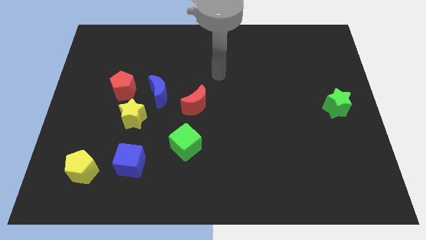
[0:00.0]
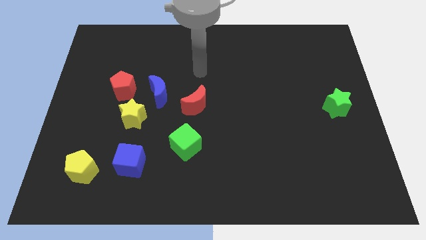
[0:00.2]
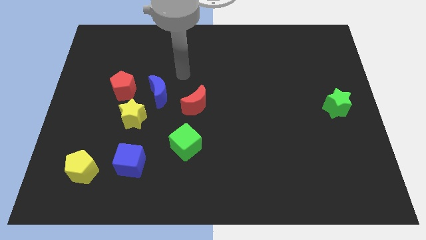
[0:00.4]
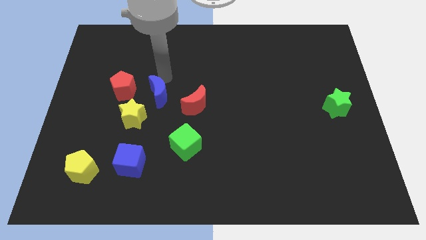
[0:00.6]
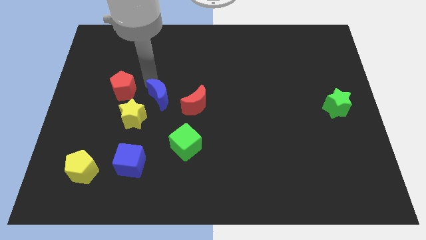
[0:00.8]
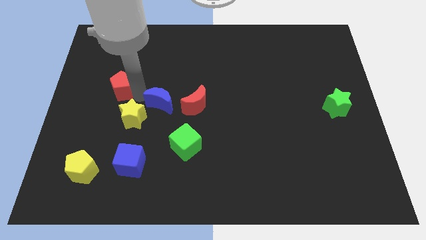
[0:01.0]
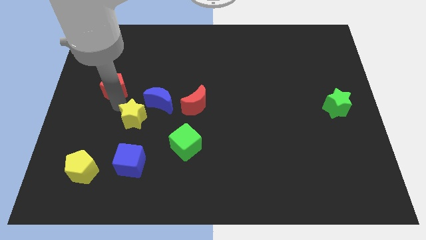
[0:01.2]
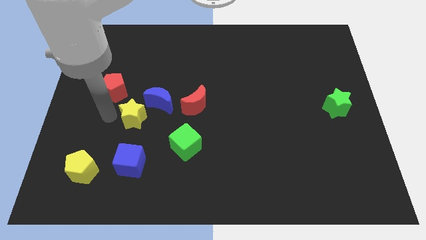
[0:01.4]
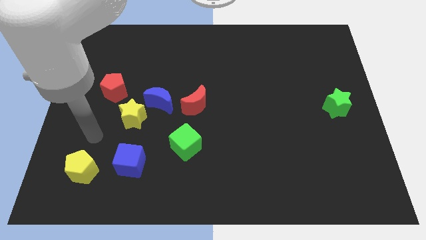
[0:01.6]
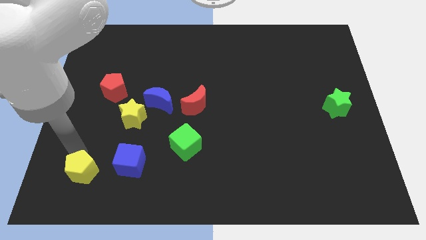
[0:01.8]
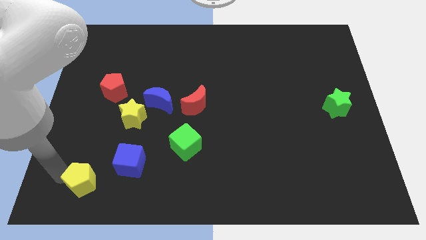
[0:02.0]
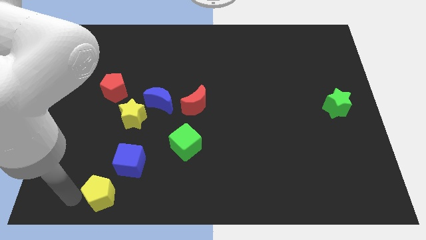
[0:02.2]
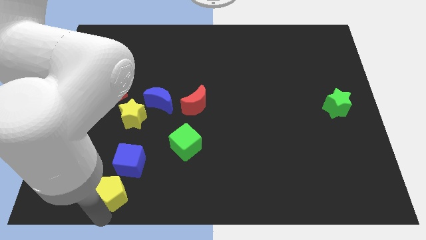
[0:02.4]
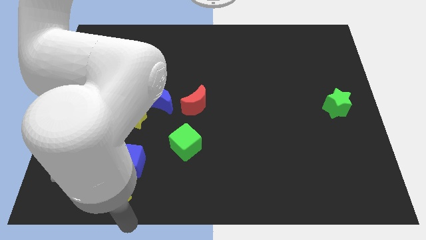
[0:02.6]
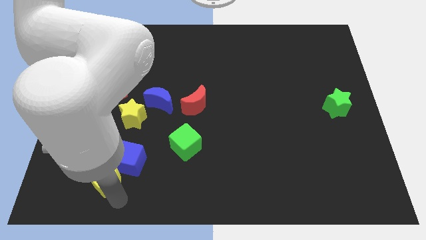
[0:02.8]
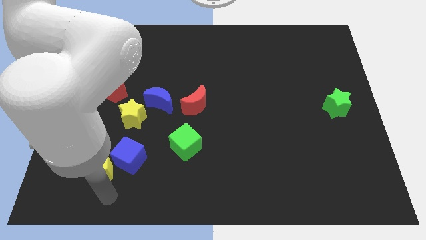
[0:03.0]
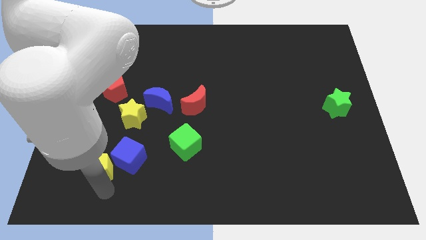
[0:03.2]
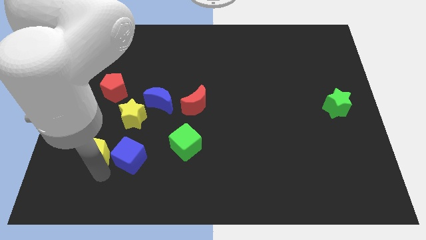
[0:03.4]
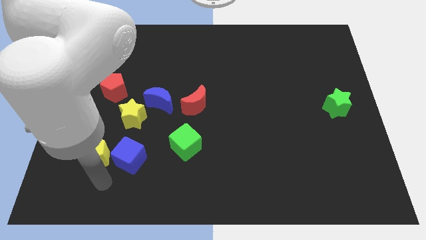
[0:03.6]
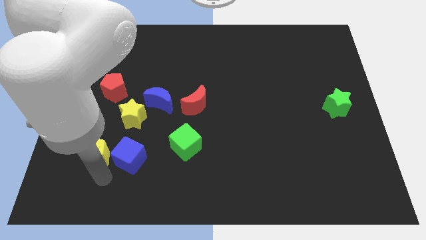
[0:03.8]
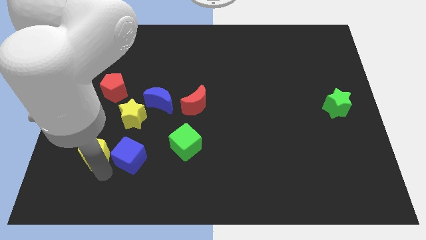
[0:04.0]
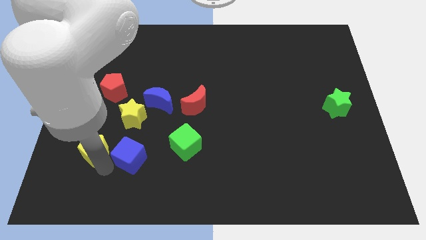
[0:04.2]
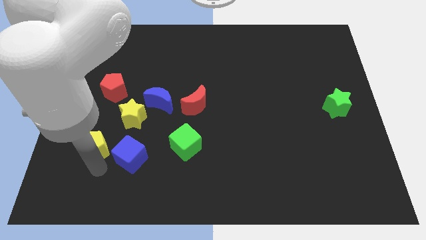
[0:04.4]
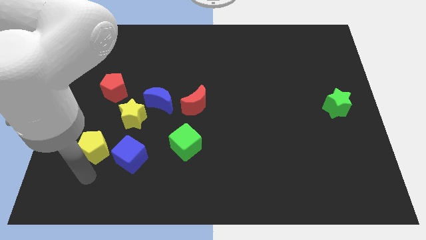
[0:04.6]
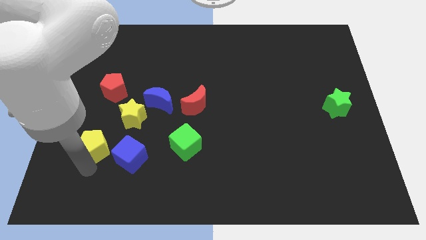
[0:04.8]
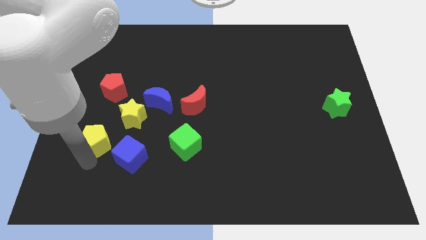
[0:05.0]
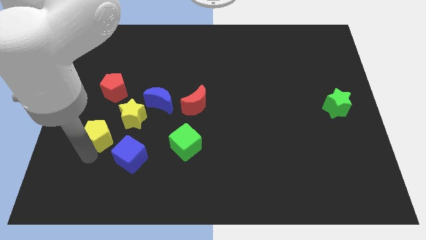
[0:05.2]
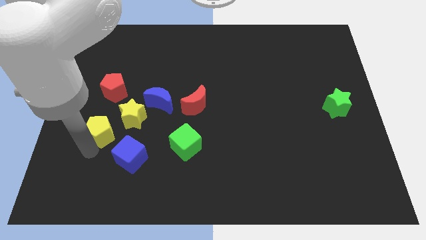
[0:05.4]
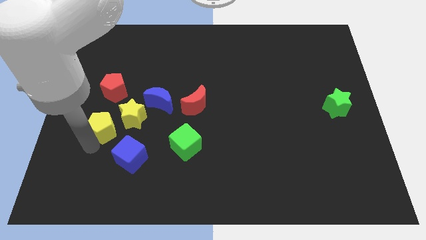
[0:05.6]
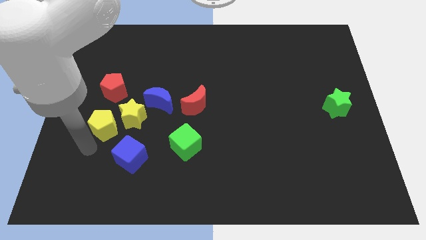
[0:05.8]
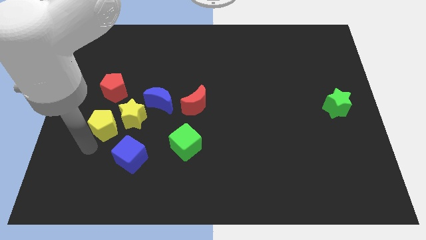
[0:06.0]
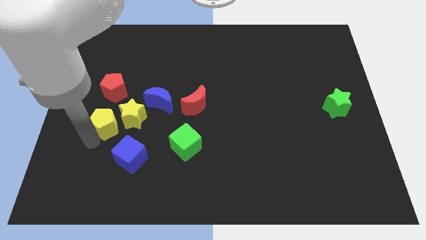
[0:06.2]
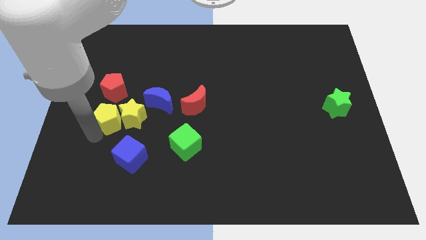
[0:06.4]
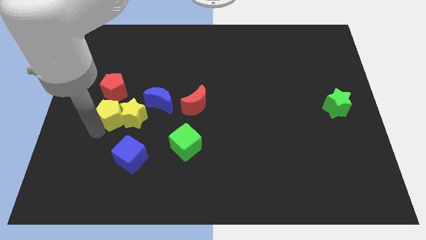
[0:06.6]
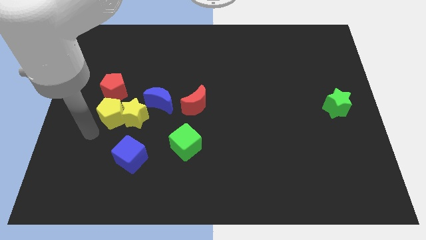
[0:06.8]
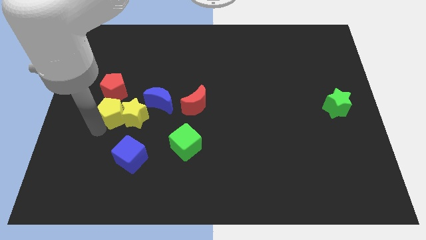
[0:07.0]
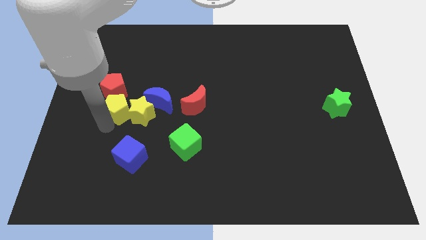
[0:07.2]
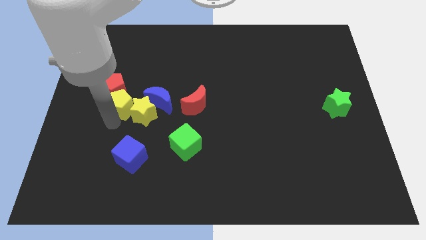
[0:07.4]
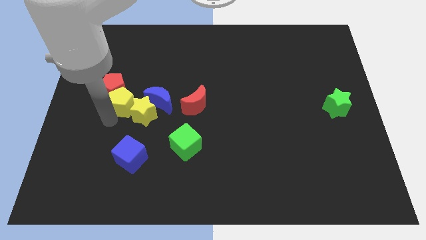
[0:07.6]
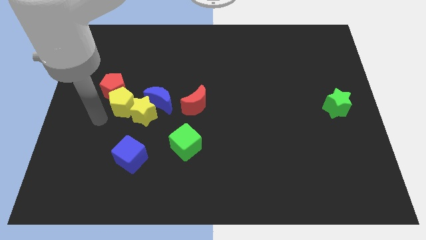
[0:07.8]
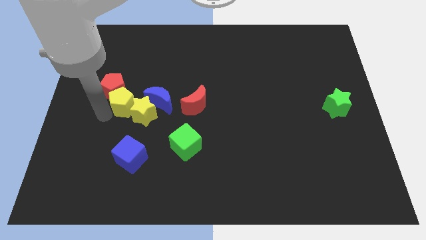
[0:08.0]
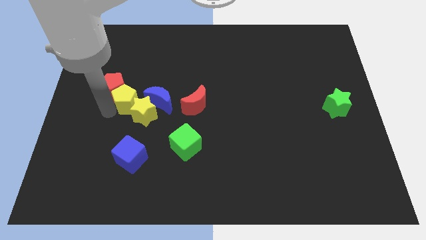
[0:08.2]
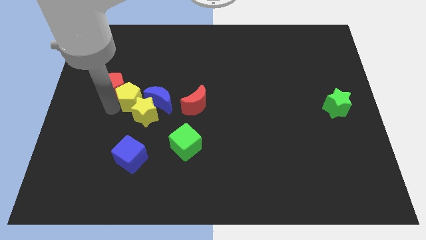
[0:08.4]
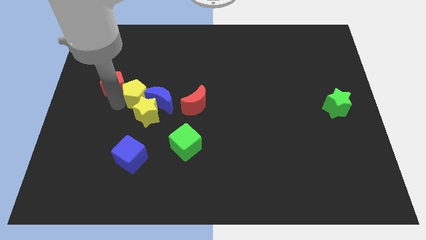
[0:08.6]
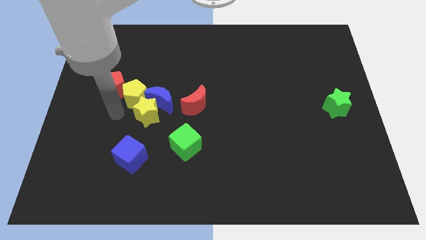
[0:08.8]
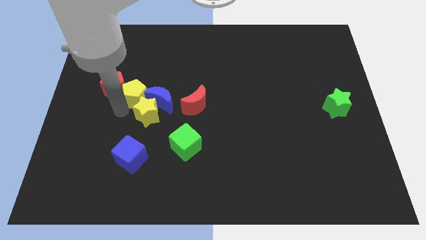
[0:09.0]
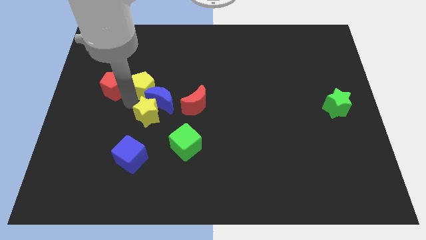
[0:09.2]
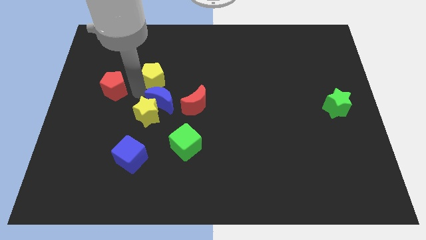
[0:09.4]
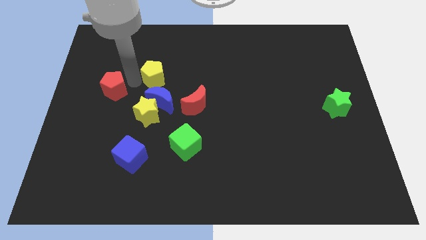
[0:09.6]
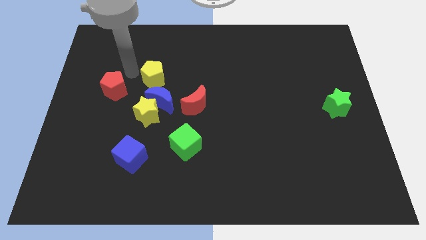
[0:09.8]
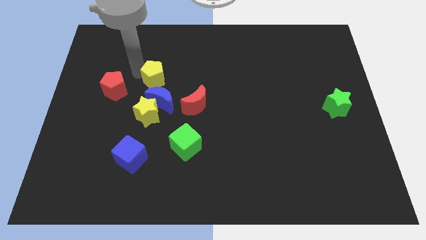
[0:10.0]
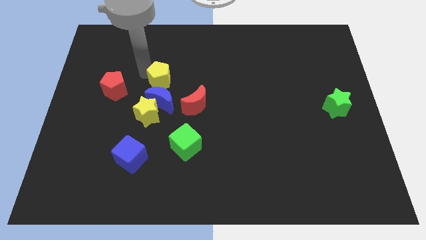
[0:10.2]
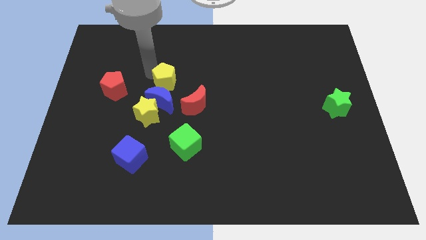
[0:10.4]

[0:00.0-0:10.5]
put the yellow pentagon diagonally up and to the right of the blue moon

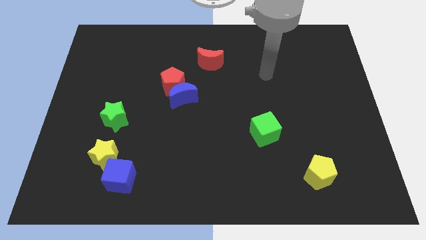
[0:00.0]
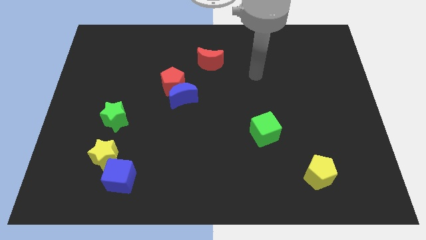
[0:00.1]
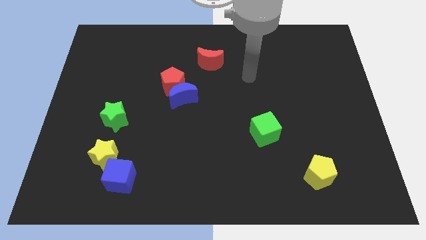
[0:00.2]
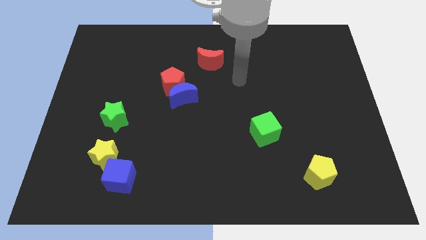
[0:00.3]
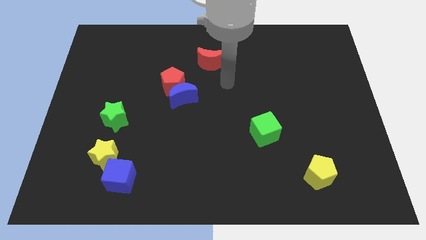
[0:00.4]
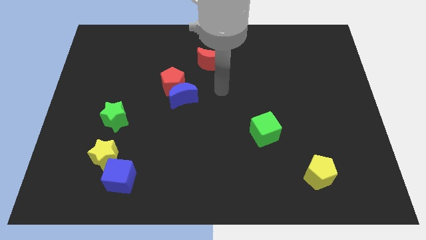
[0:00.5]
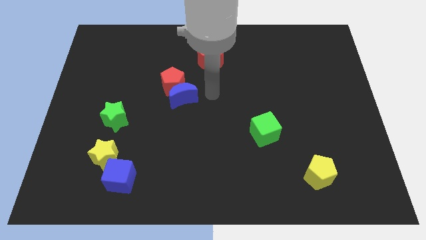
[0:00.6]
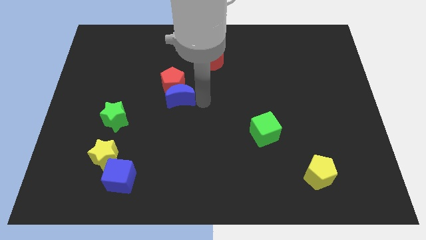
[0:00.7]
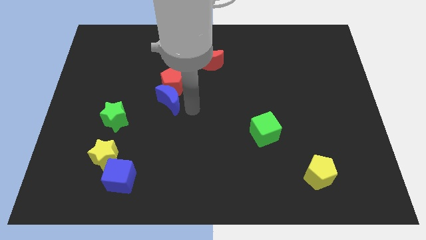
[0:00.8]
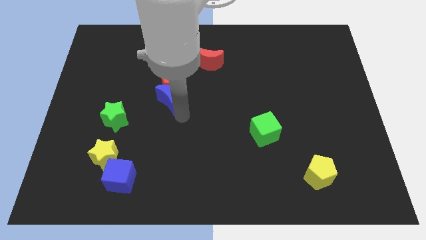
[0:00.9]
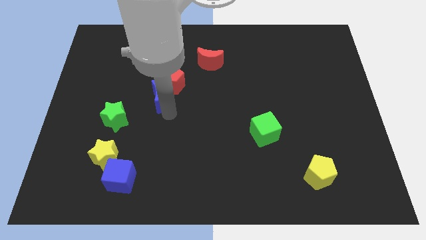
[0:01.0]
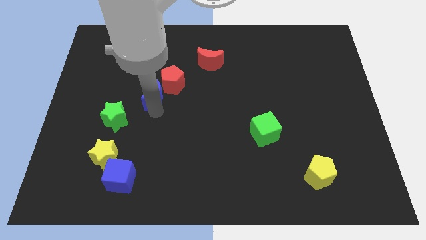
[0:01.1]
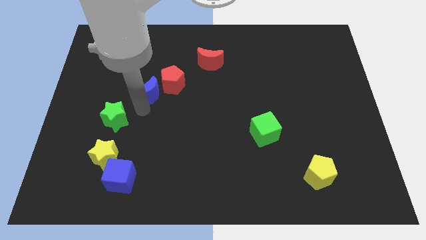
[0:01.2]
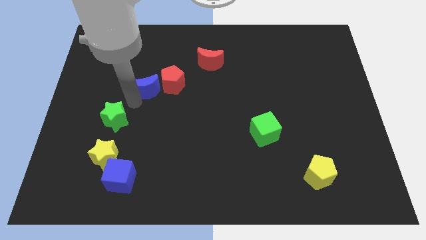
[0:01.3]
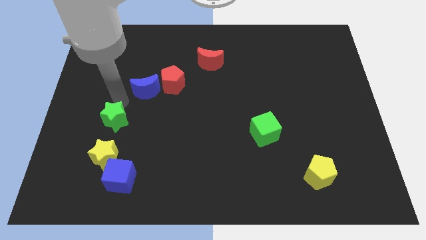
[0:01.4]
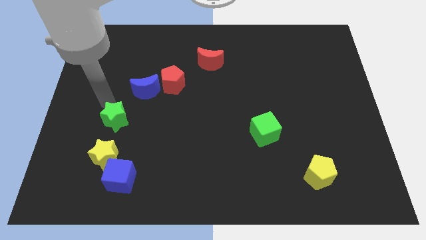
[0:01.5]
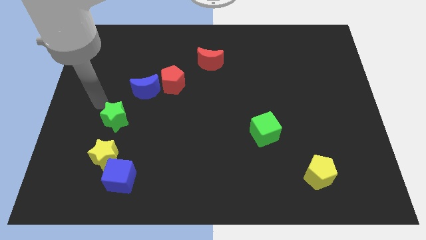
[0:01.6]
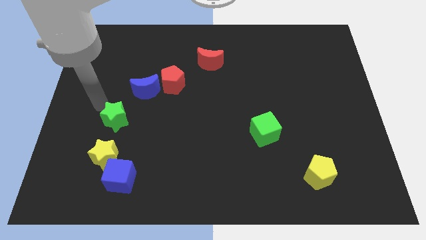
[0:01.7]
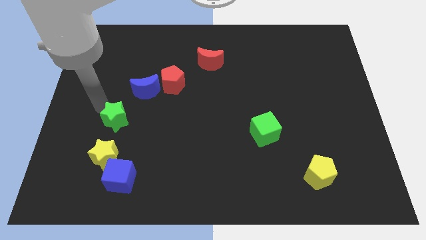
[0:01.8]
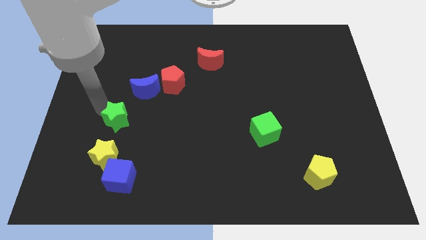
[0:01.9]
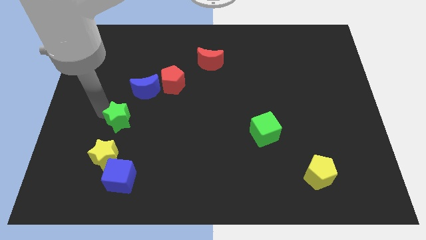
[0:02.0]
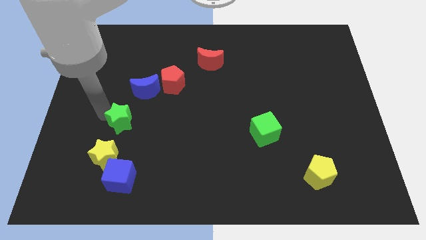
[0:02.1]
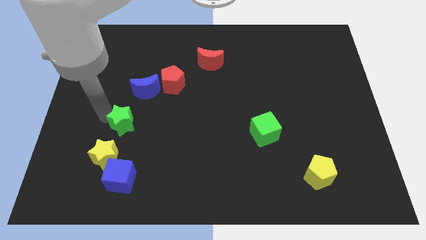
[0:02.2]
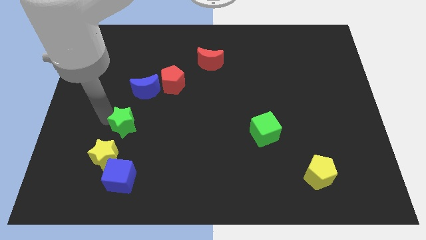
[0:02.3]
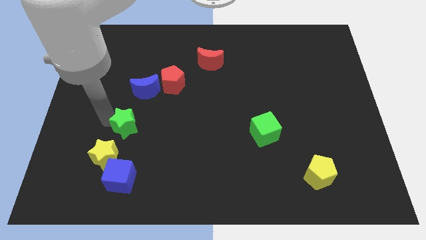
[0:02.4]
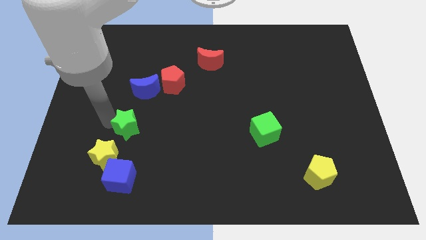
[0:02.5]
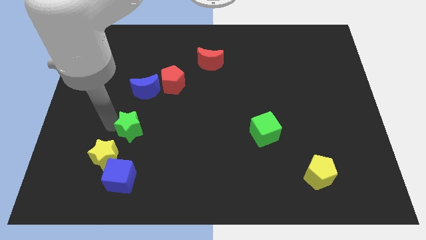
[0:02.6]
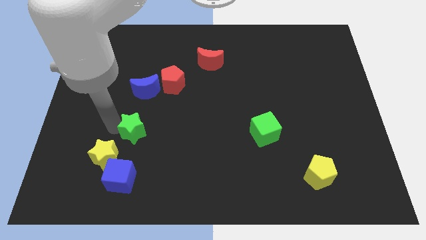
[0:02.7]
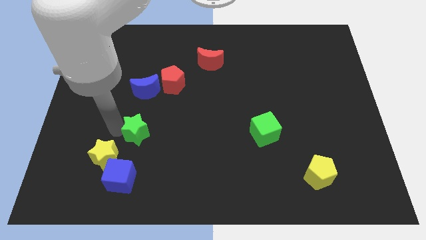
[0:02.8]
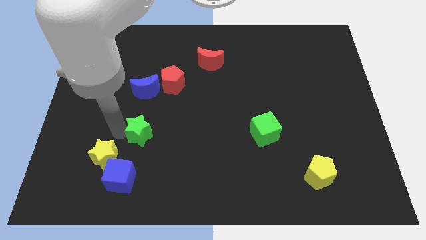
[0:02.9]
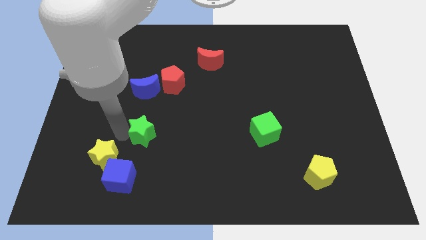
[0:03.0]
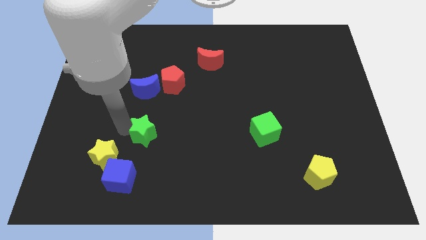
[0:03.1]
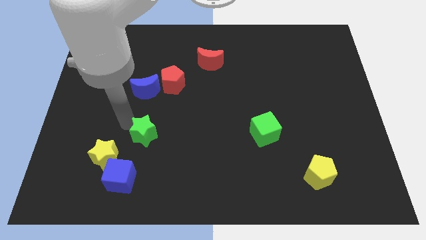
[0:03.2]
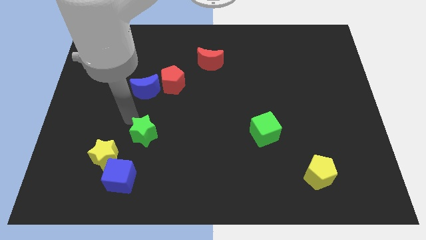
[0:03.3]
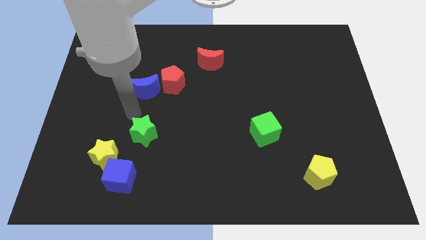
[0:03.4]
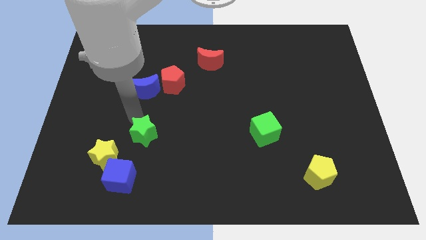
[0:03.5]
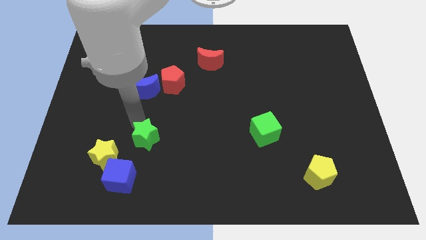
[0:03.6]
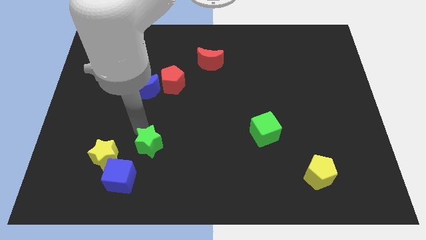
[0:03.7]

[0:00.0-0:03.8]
slide the green star just right of the yellow star
